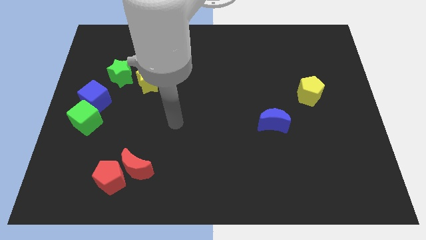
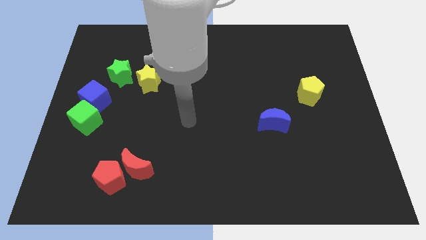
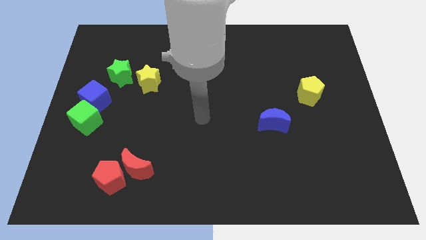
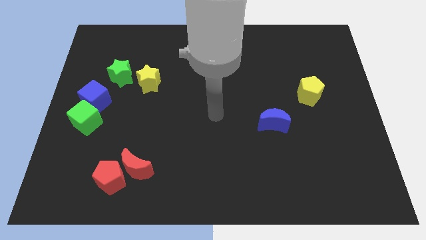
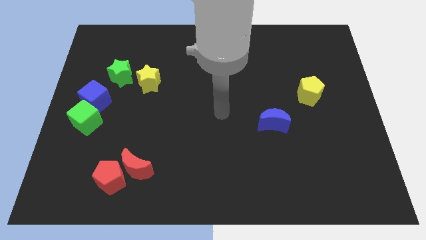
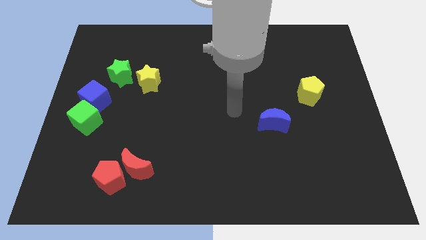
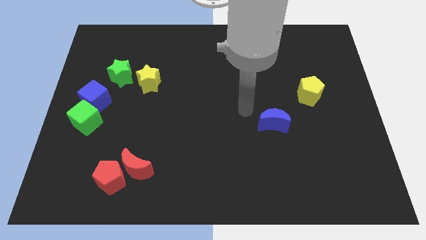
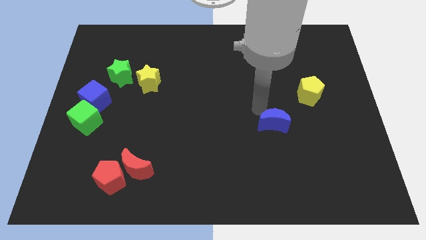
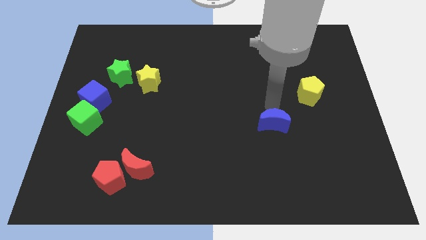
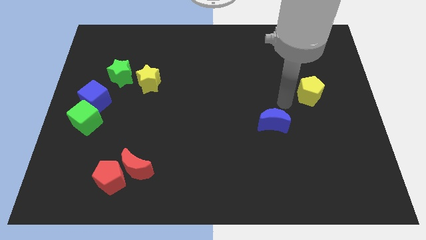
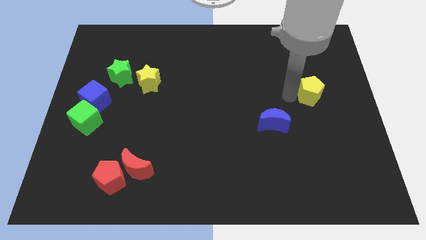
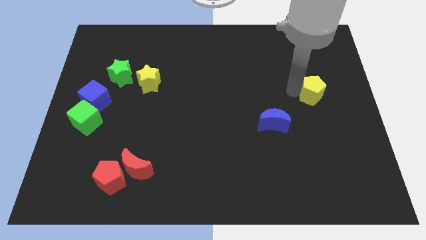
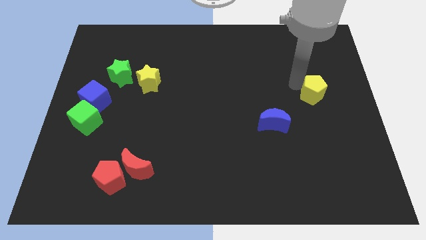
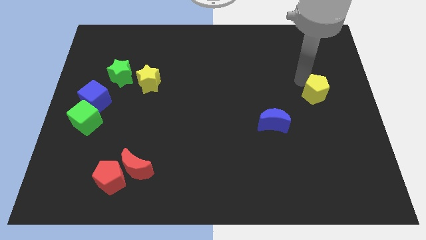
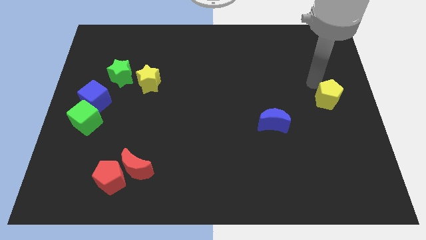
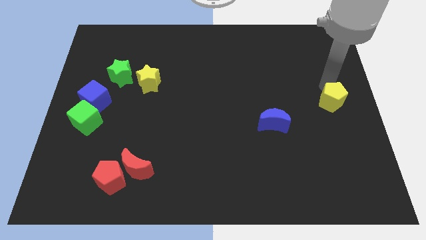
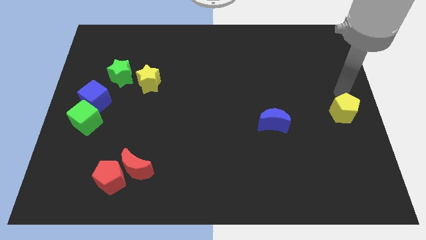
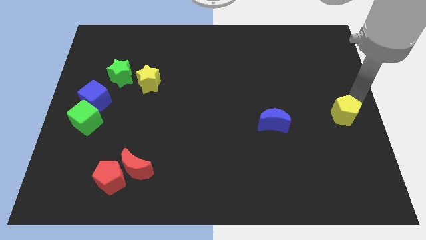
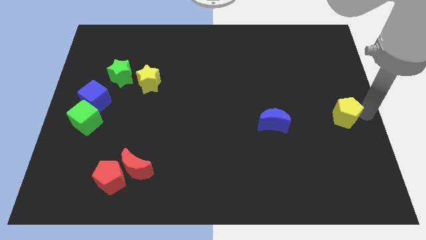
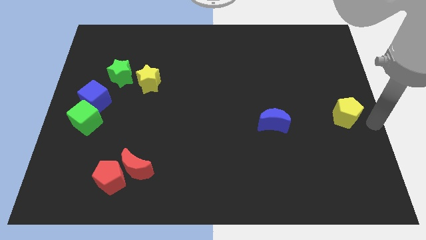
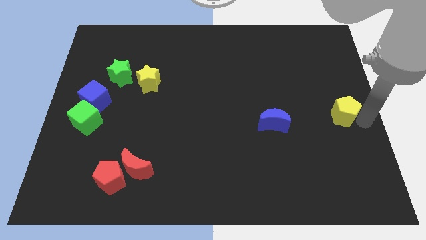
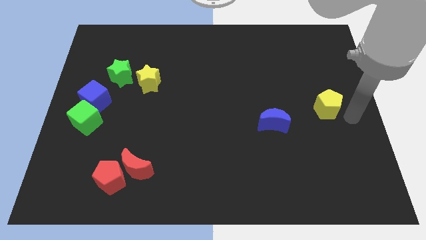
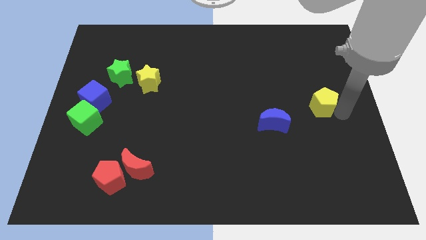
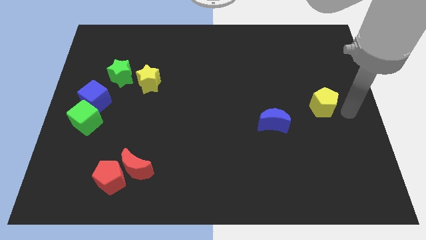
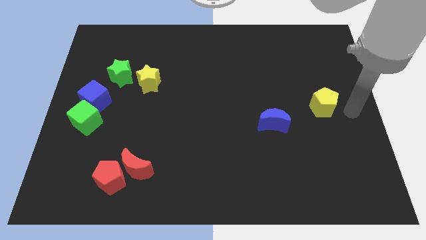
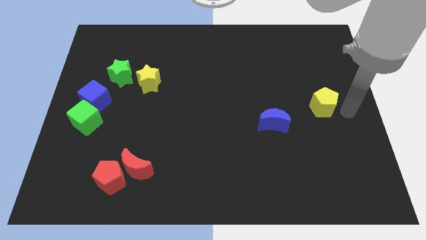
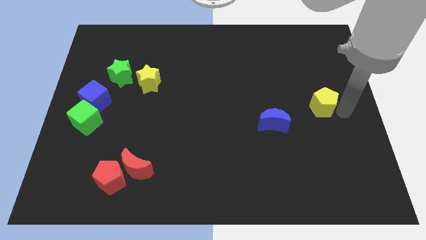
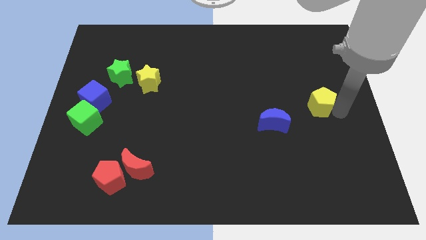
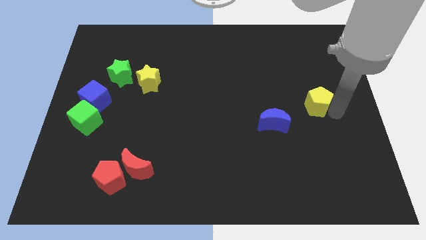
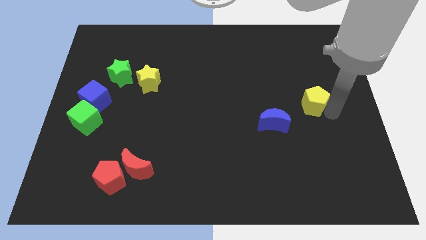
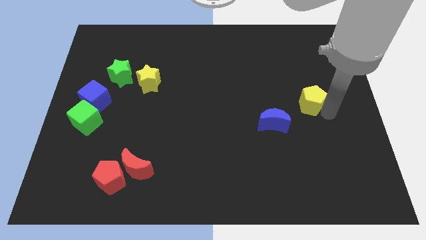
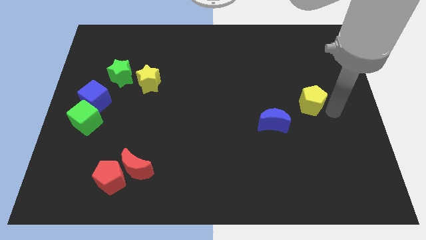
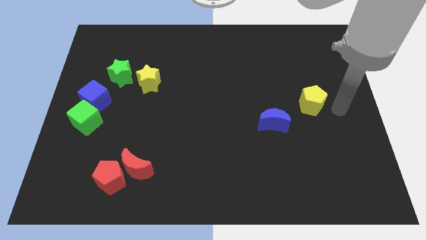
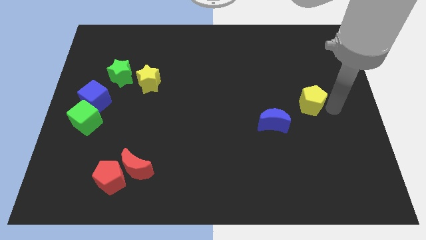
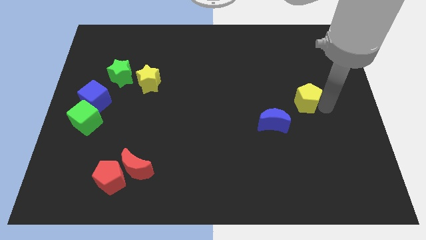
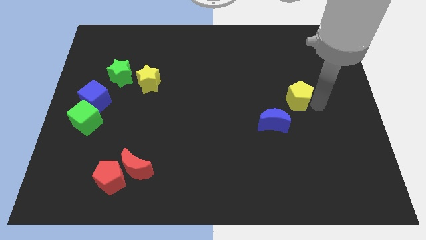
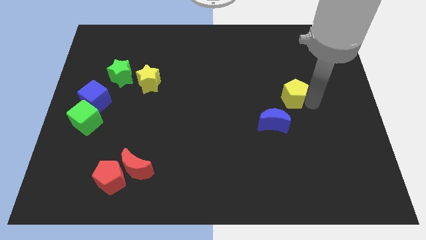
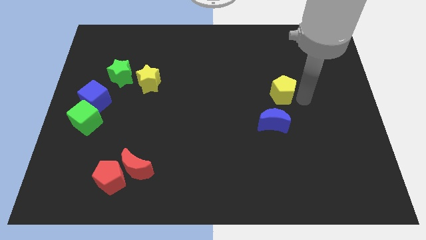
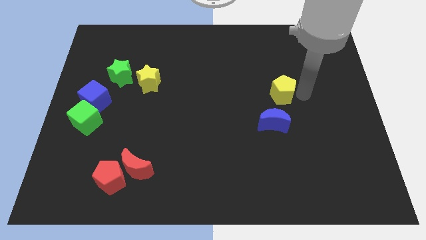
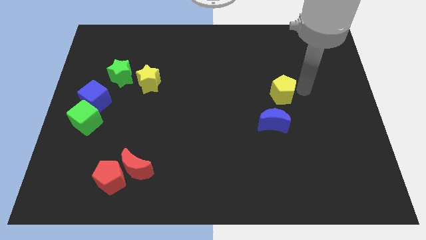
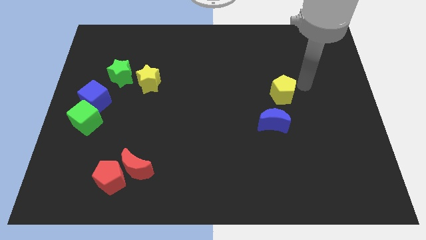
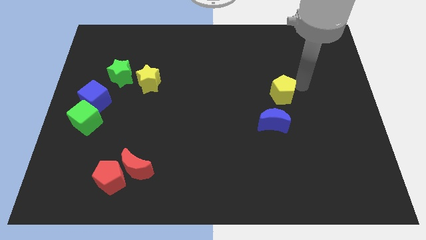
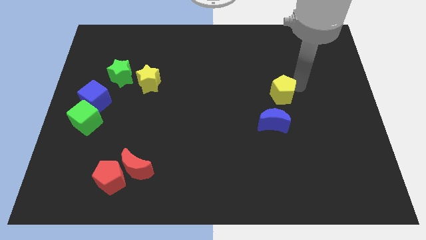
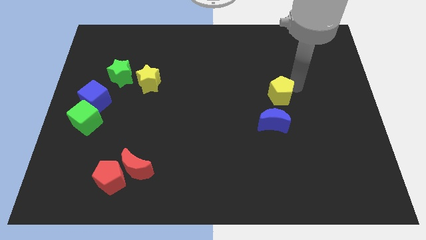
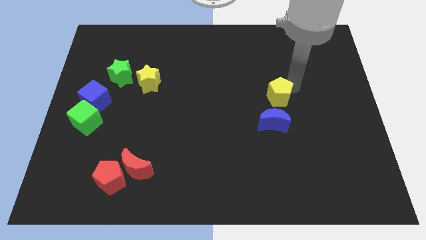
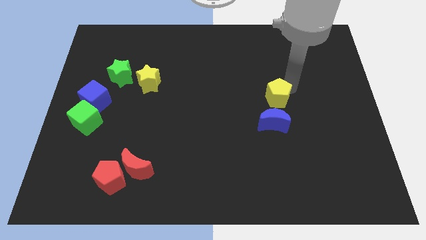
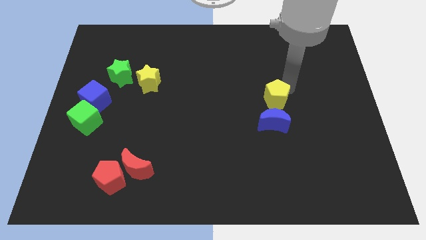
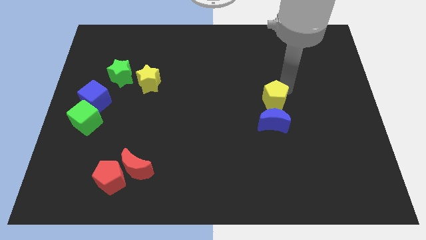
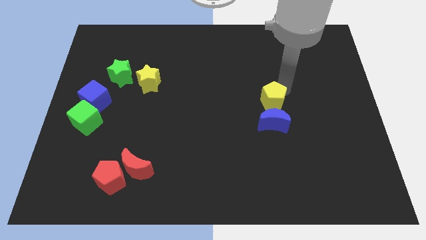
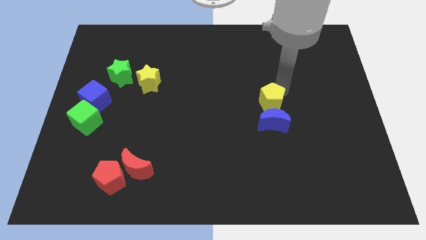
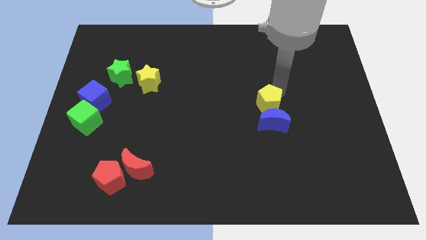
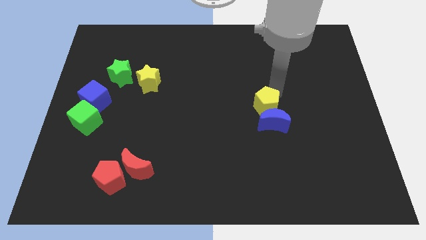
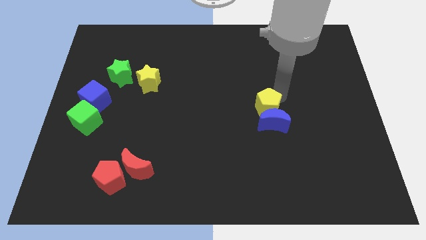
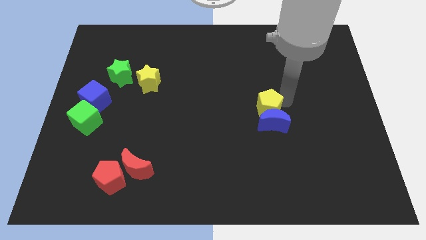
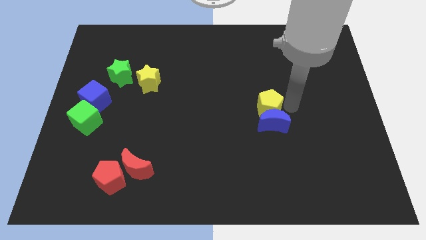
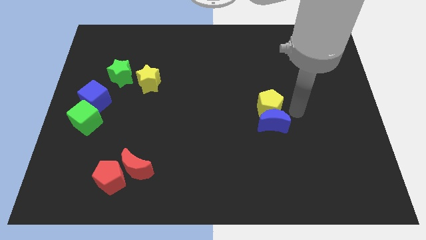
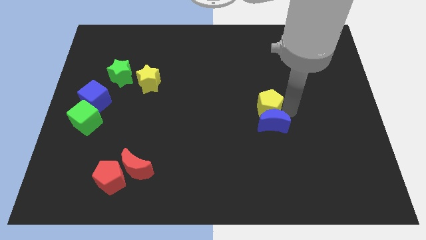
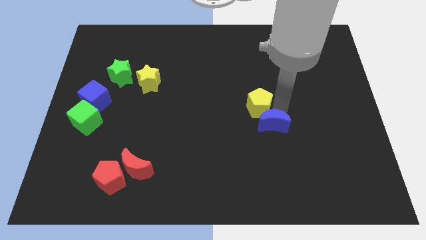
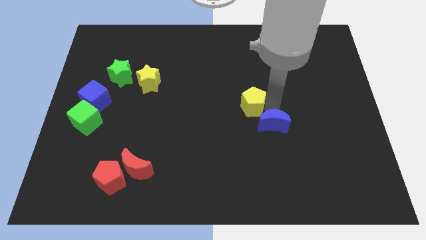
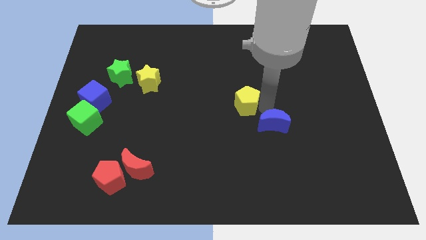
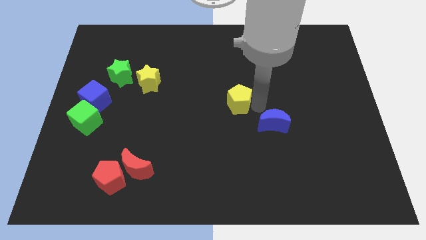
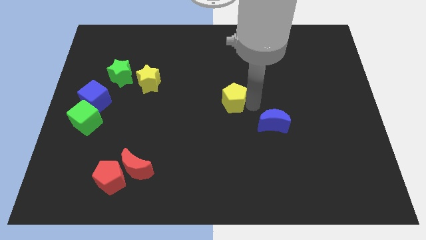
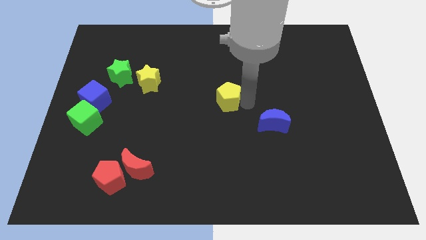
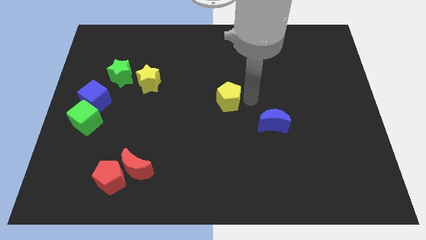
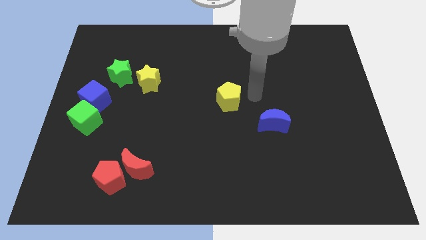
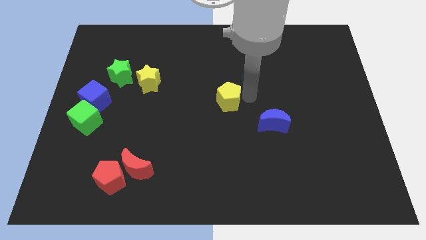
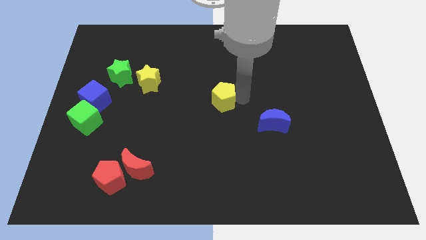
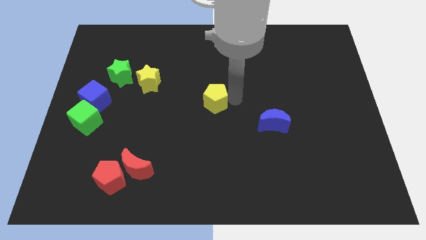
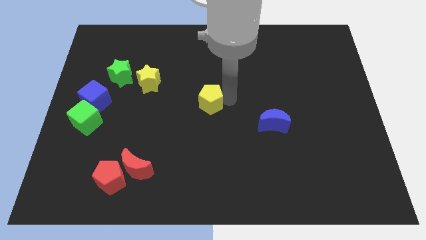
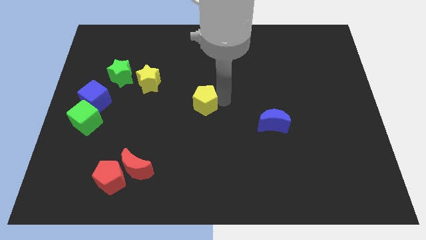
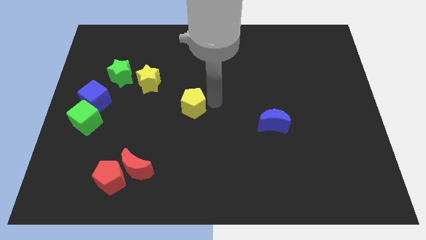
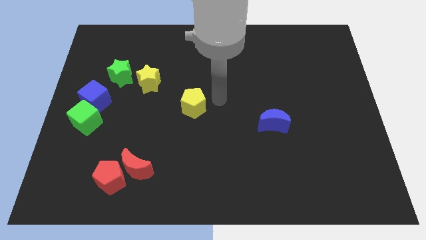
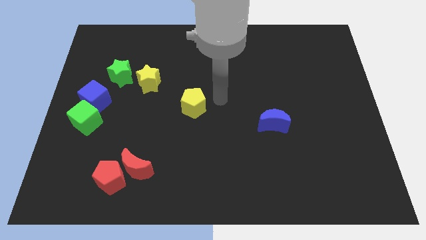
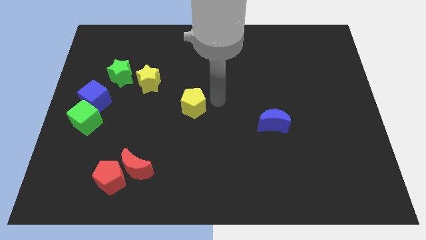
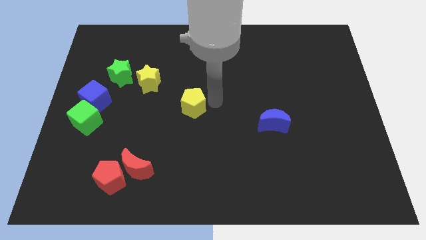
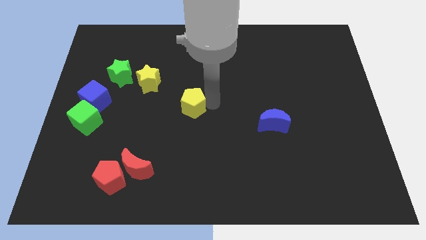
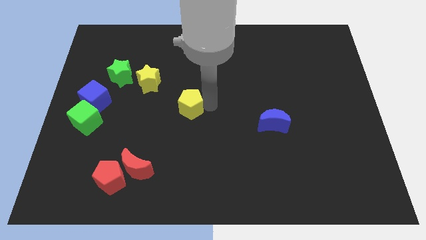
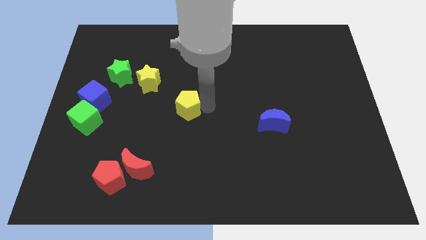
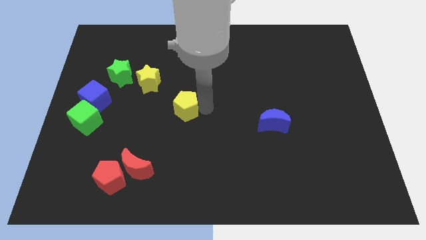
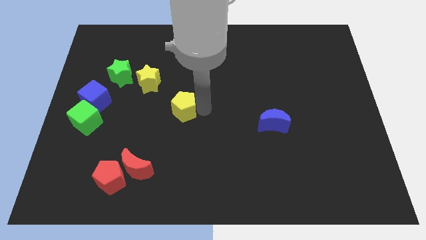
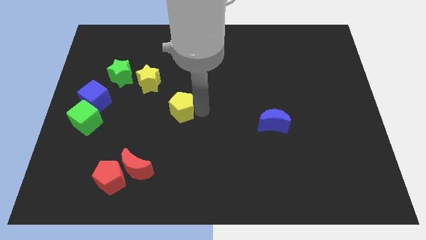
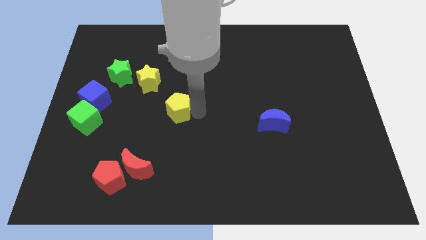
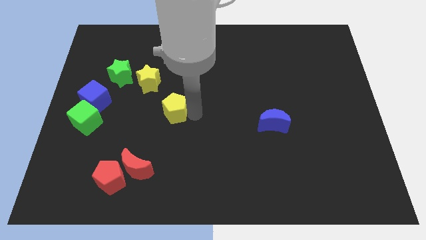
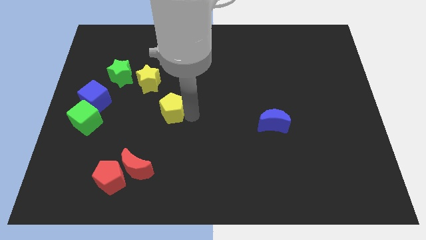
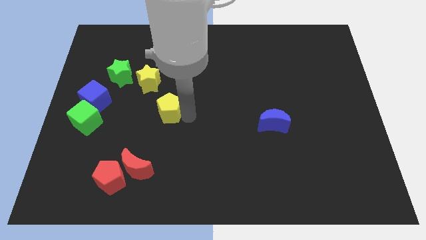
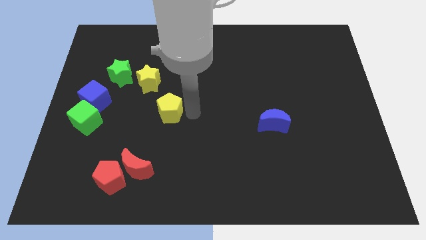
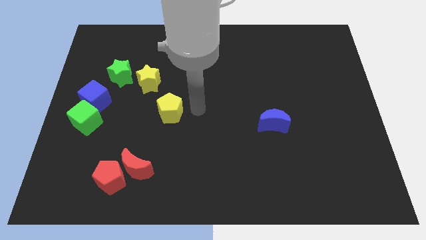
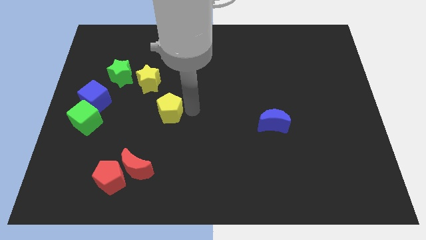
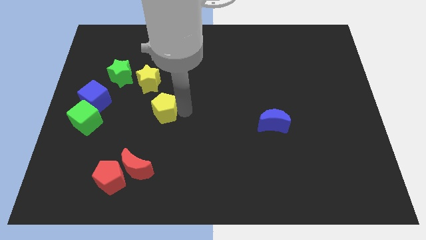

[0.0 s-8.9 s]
slide the yellow pentagon to the bottom of the yellow star
